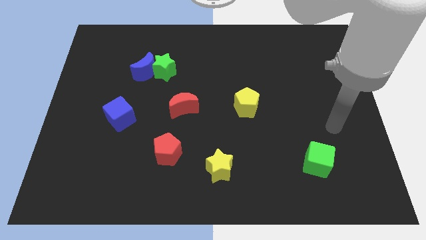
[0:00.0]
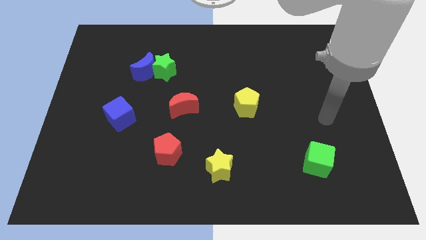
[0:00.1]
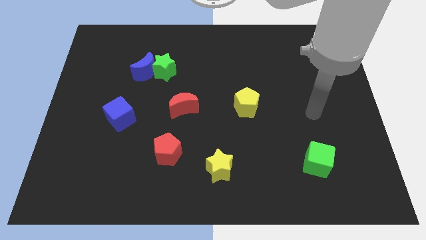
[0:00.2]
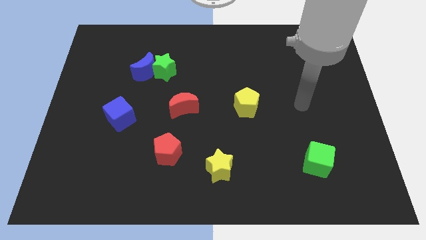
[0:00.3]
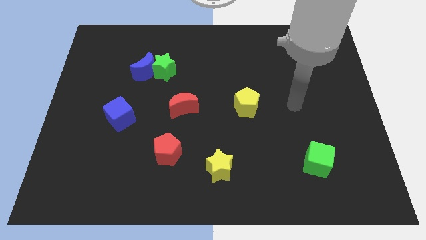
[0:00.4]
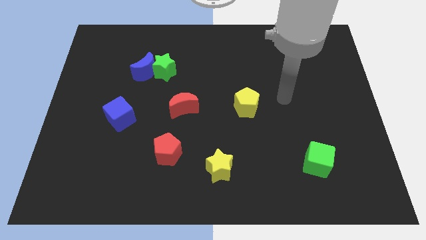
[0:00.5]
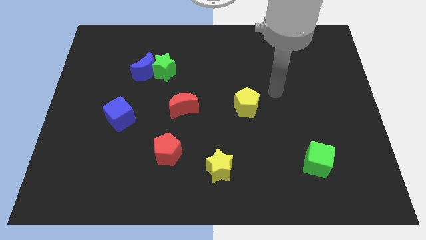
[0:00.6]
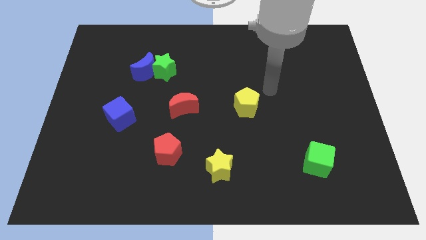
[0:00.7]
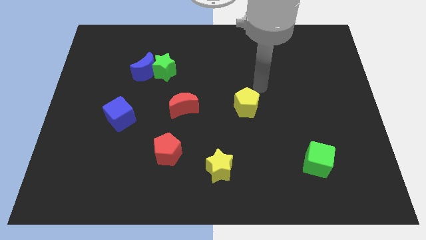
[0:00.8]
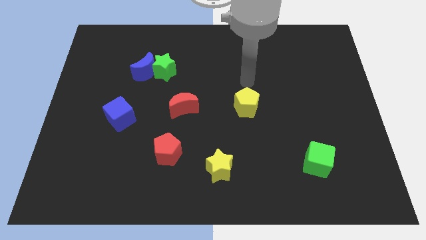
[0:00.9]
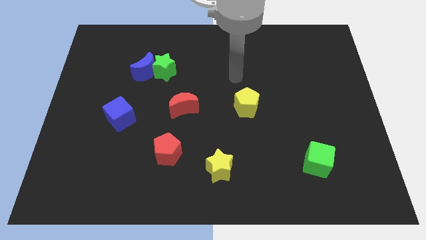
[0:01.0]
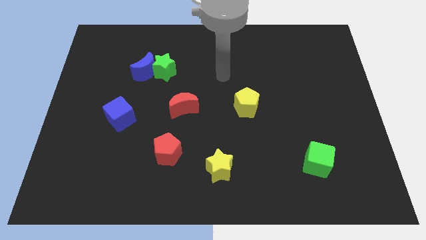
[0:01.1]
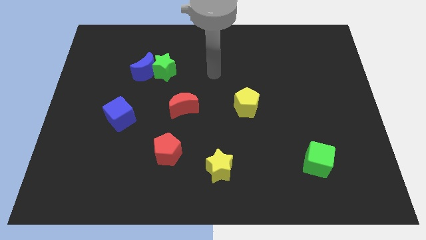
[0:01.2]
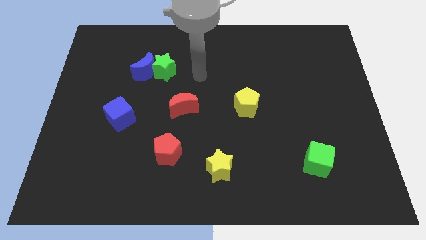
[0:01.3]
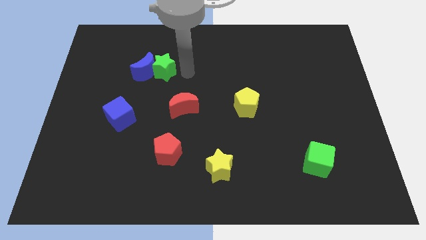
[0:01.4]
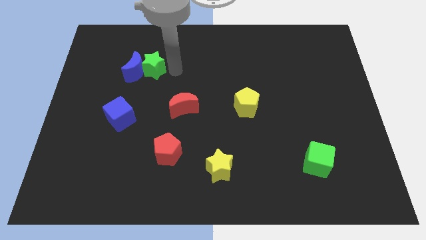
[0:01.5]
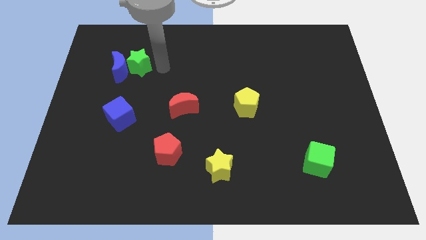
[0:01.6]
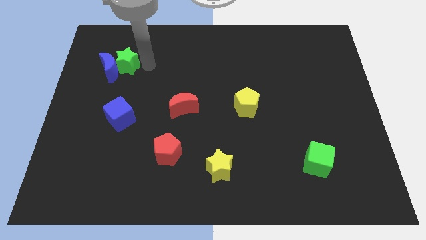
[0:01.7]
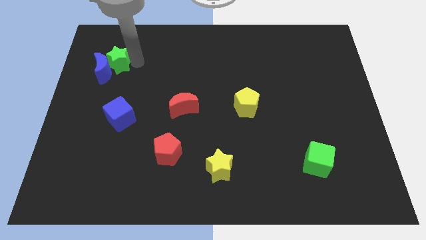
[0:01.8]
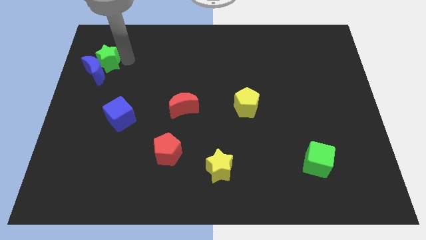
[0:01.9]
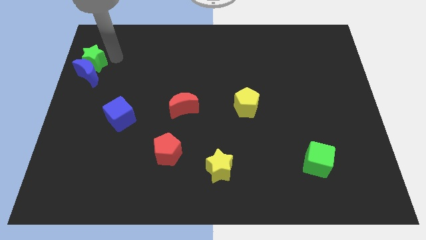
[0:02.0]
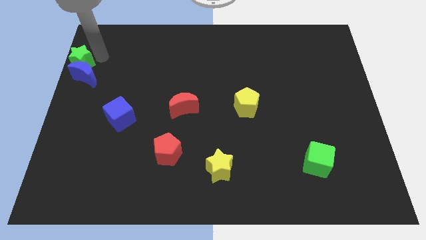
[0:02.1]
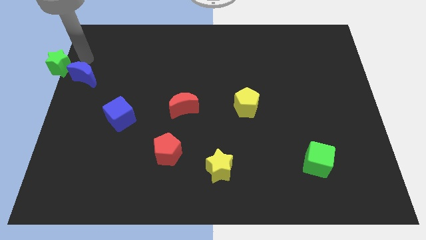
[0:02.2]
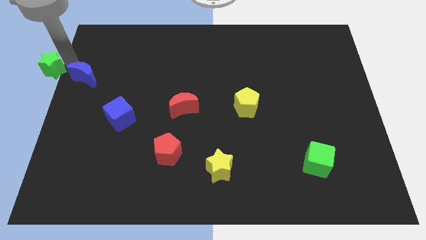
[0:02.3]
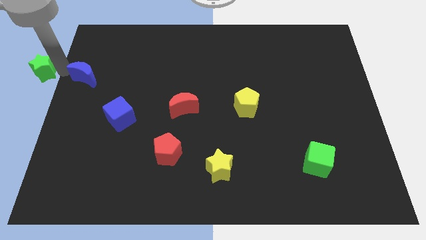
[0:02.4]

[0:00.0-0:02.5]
move the blue moon away from the green star

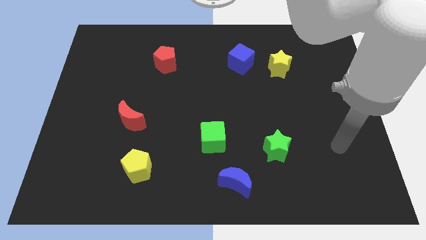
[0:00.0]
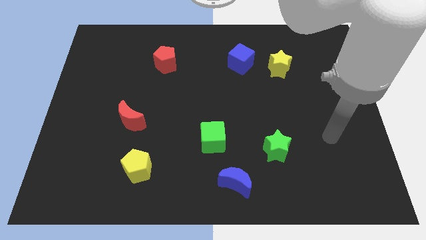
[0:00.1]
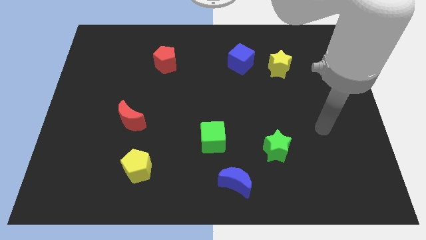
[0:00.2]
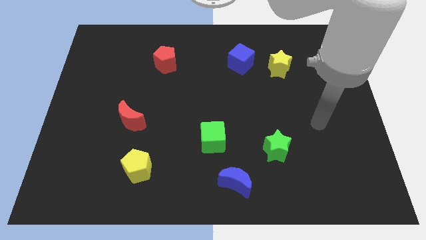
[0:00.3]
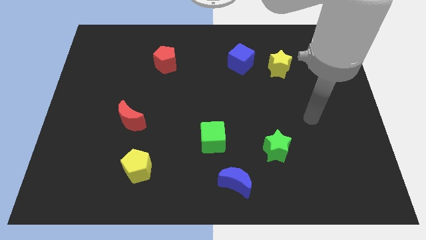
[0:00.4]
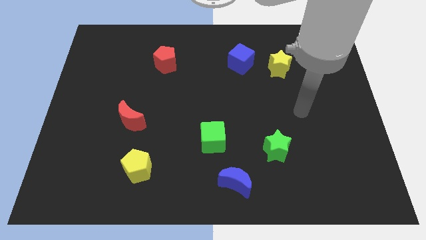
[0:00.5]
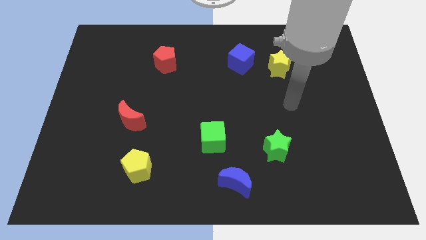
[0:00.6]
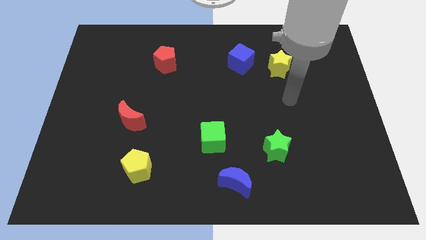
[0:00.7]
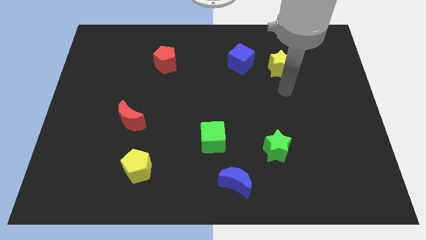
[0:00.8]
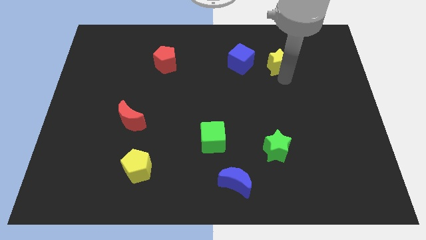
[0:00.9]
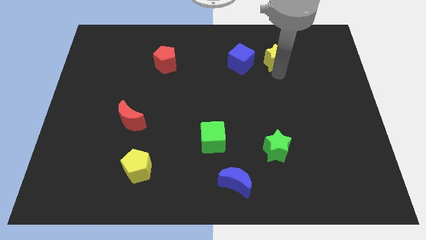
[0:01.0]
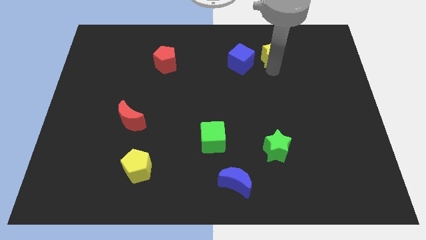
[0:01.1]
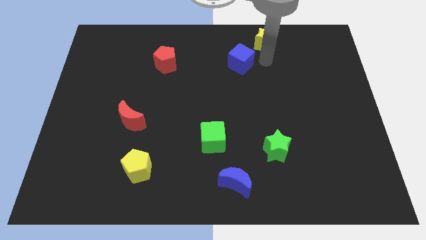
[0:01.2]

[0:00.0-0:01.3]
move the blue cube away from the yellow star

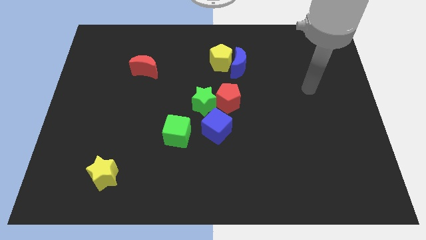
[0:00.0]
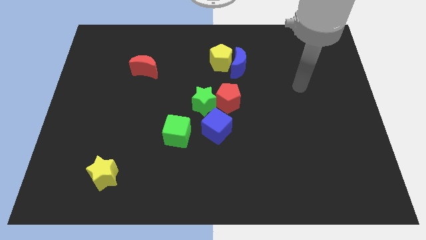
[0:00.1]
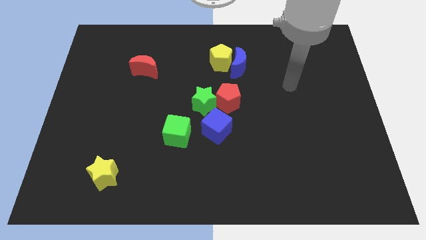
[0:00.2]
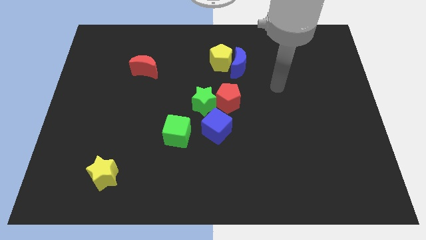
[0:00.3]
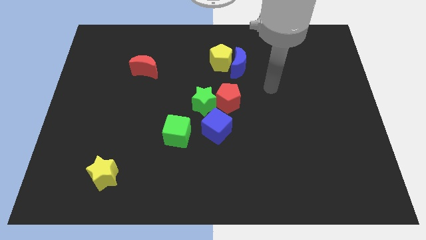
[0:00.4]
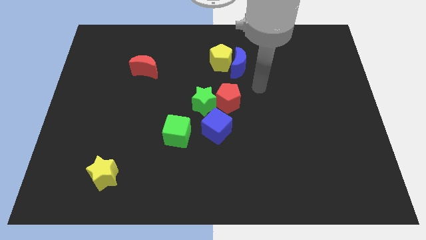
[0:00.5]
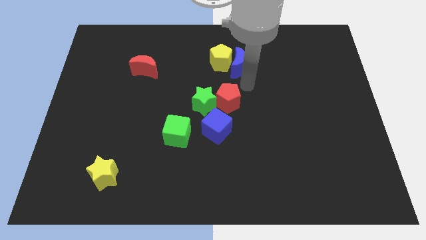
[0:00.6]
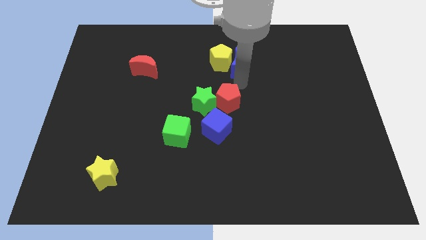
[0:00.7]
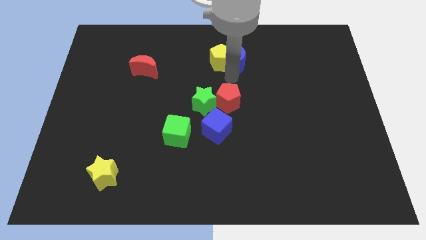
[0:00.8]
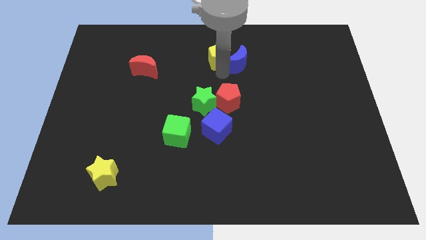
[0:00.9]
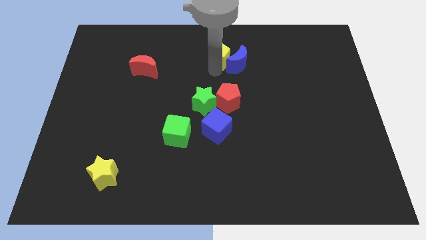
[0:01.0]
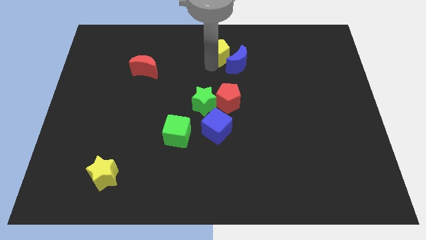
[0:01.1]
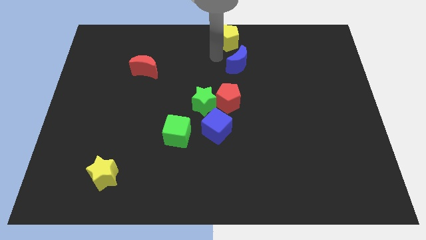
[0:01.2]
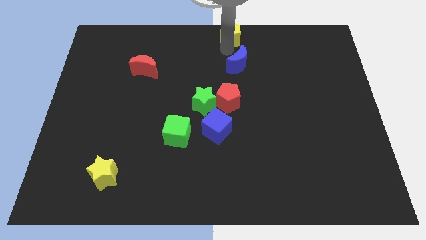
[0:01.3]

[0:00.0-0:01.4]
move the blue moon away from the yellow pentagon

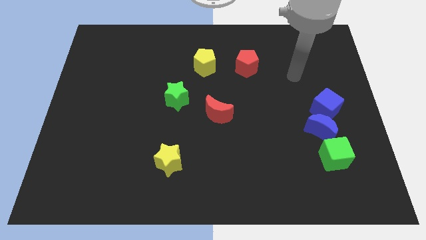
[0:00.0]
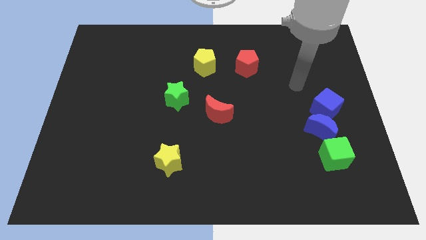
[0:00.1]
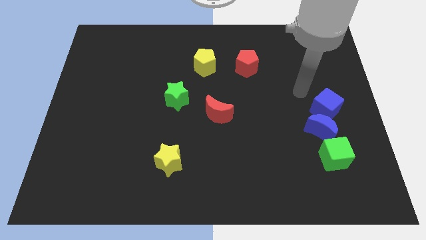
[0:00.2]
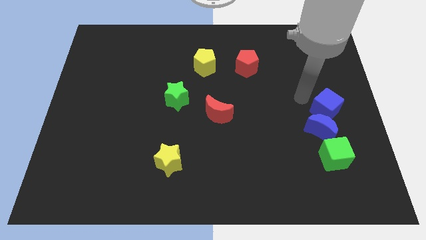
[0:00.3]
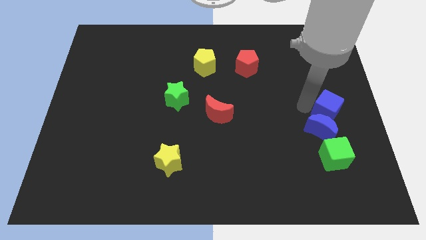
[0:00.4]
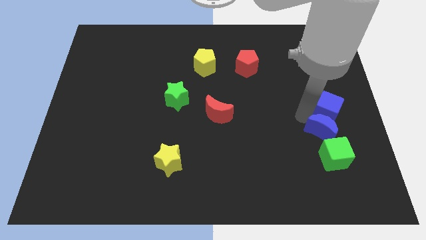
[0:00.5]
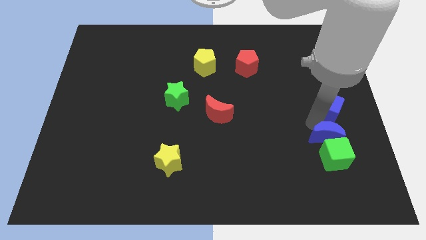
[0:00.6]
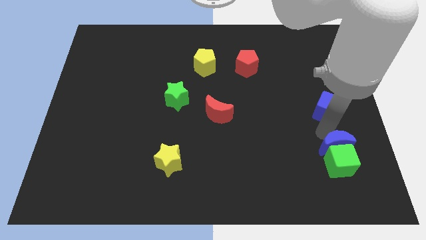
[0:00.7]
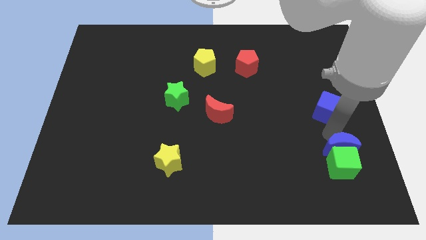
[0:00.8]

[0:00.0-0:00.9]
separate the blue cube from the blue moon

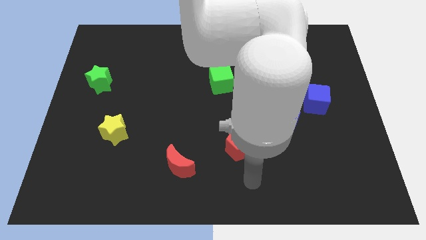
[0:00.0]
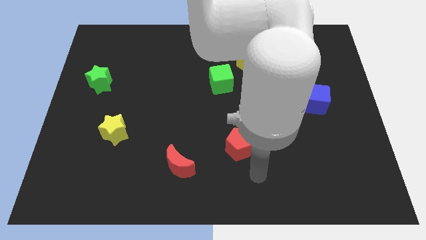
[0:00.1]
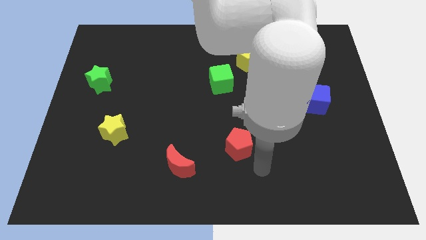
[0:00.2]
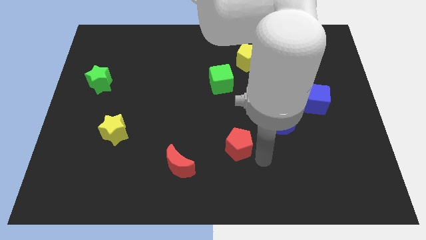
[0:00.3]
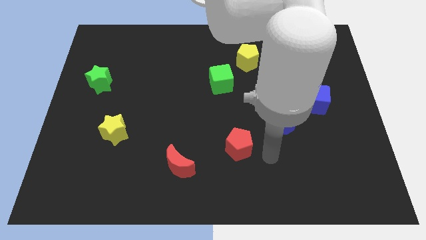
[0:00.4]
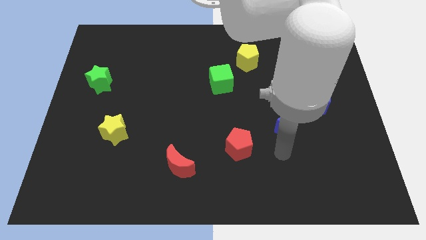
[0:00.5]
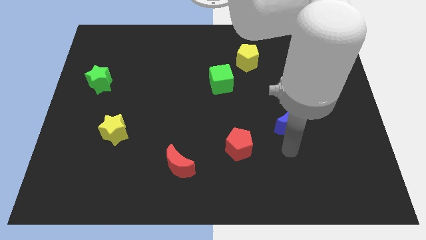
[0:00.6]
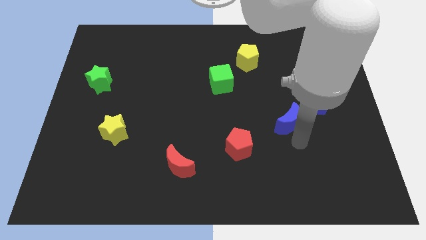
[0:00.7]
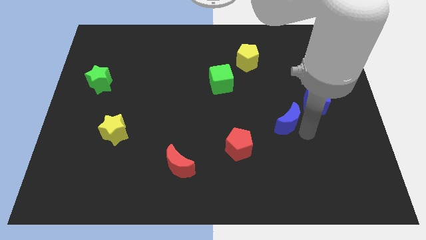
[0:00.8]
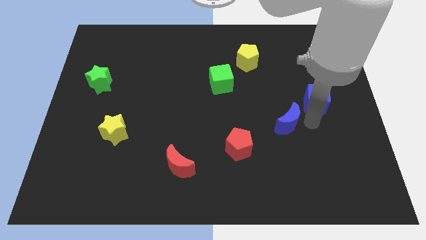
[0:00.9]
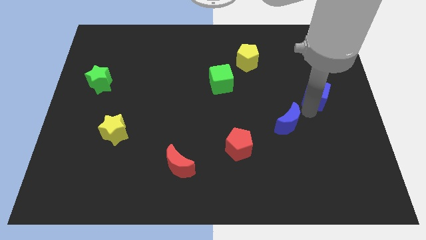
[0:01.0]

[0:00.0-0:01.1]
pull the blue moon apart from the blue cube

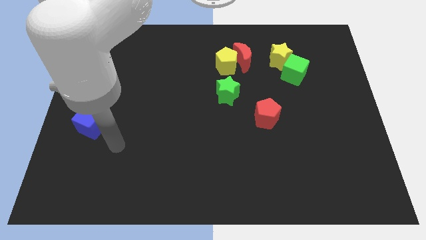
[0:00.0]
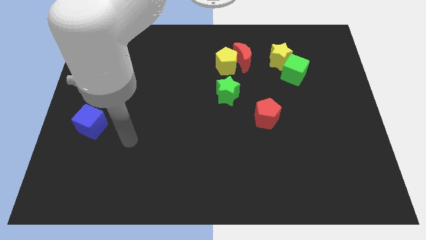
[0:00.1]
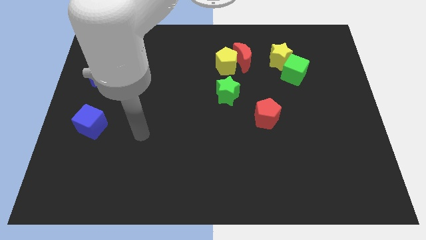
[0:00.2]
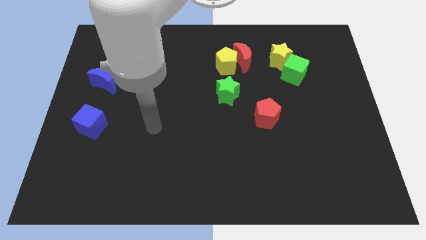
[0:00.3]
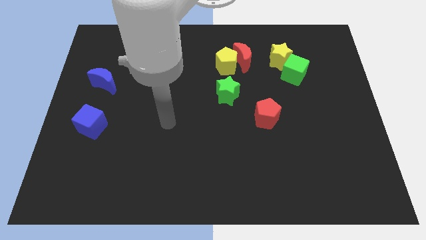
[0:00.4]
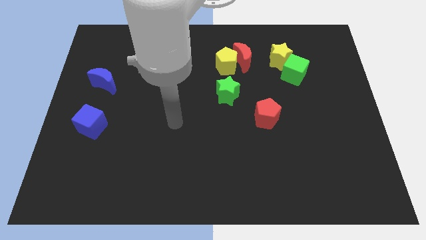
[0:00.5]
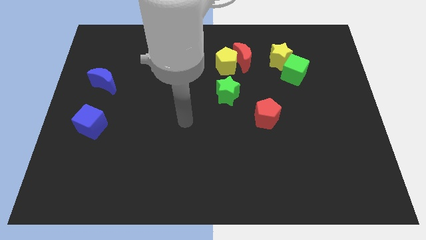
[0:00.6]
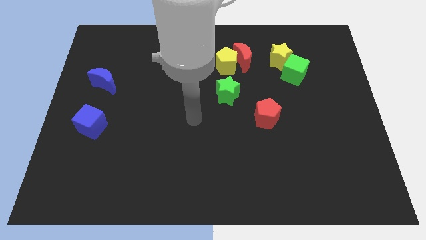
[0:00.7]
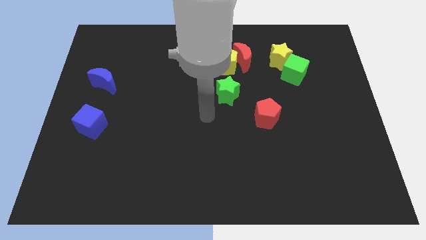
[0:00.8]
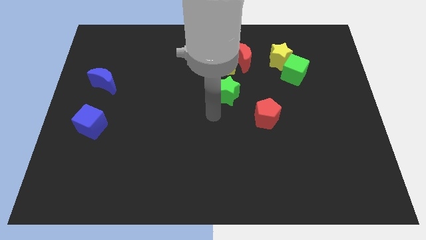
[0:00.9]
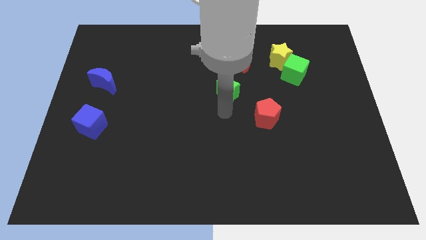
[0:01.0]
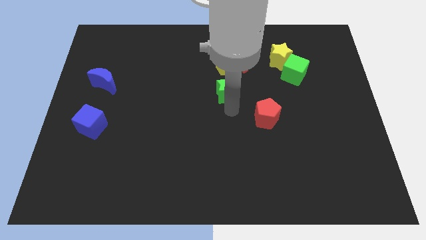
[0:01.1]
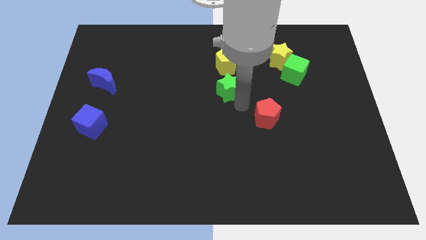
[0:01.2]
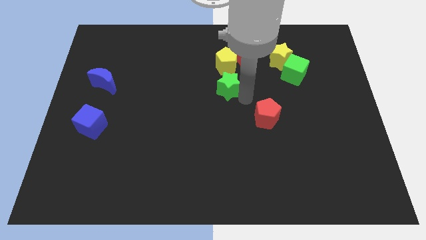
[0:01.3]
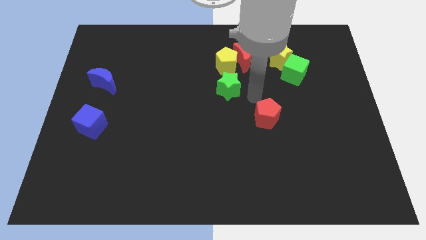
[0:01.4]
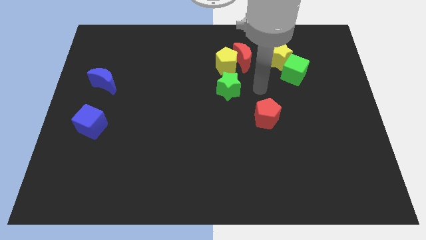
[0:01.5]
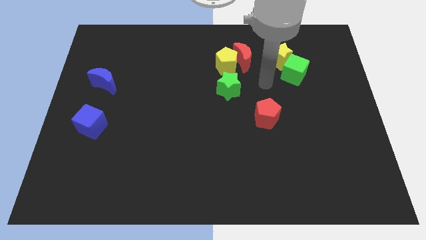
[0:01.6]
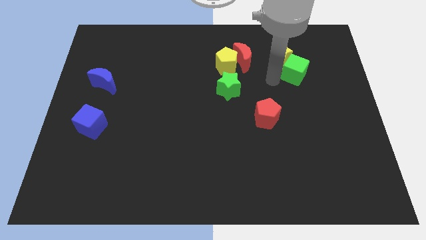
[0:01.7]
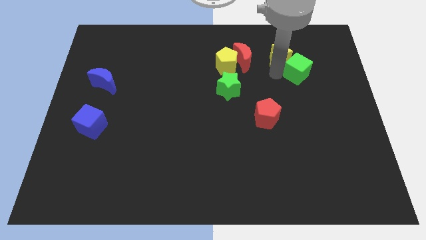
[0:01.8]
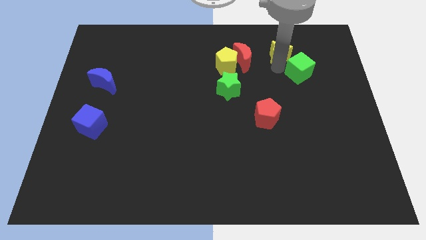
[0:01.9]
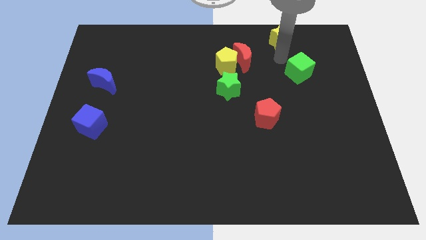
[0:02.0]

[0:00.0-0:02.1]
pull the green cube apart from the yellow star
